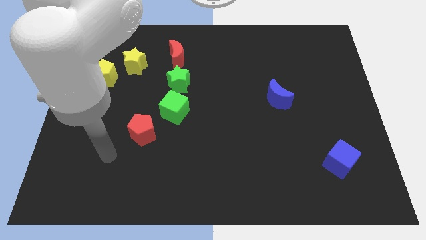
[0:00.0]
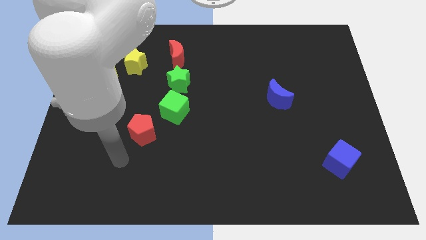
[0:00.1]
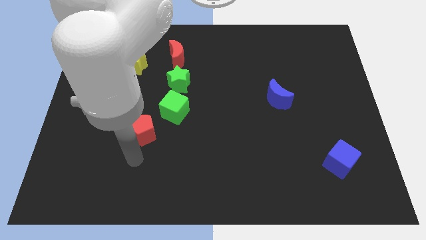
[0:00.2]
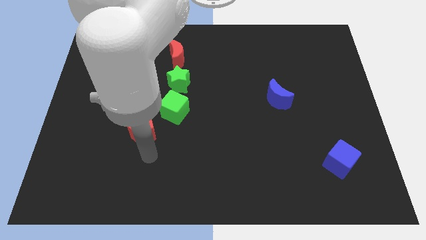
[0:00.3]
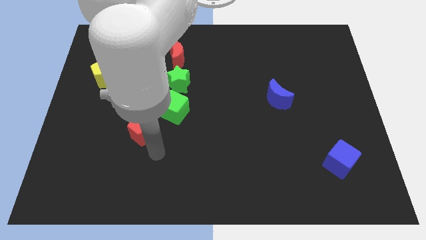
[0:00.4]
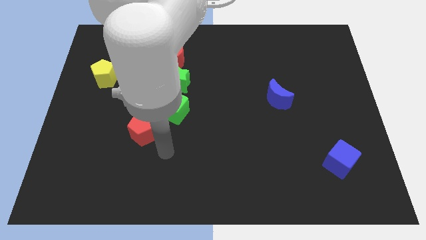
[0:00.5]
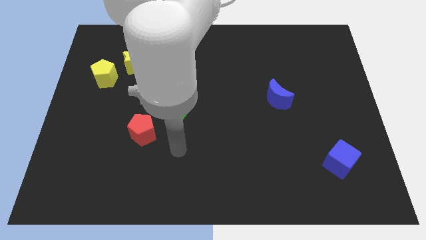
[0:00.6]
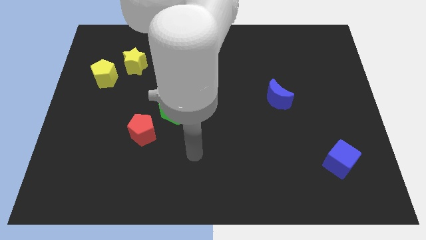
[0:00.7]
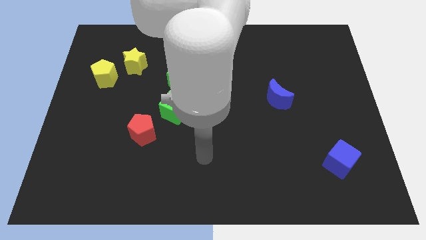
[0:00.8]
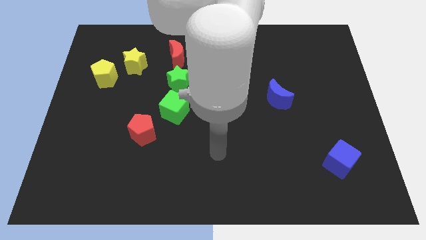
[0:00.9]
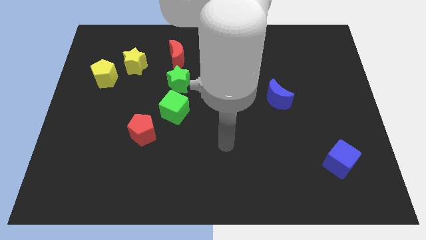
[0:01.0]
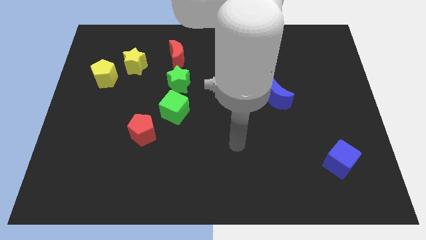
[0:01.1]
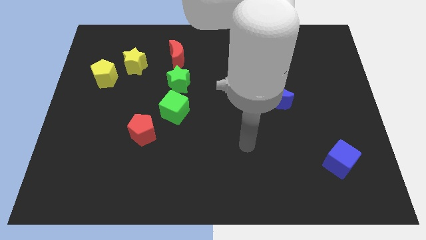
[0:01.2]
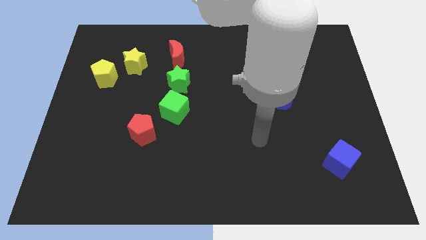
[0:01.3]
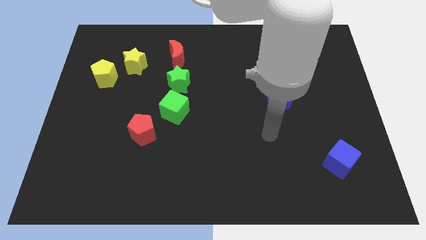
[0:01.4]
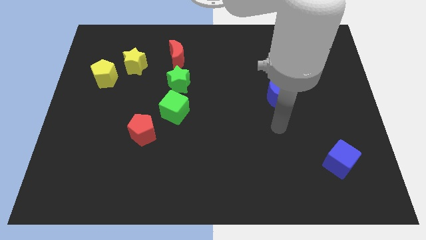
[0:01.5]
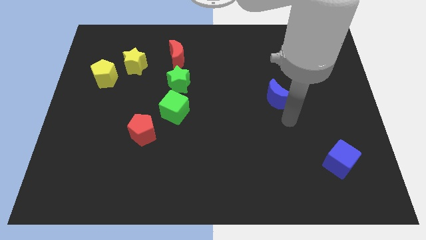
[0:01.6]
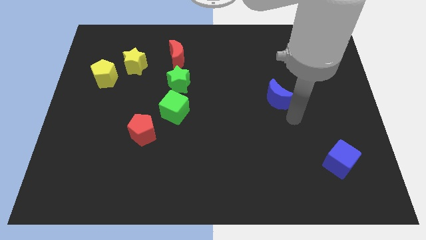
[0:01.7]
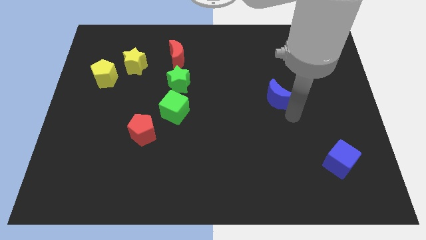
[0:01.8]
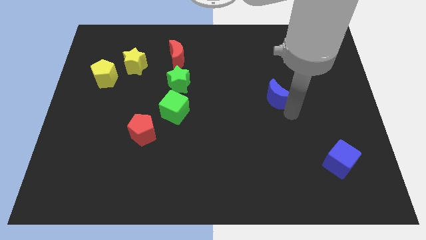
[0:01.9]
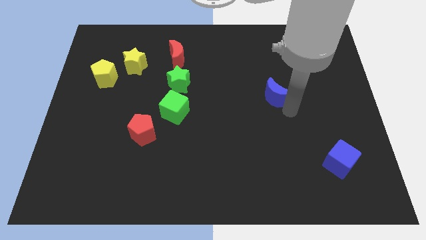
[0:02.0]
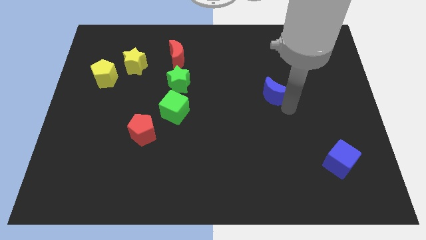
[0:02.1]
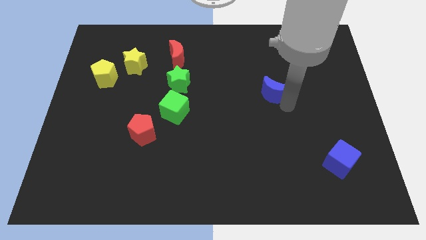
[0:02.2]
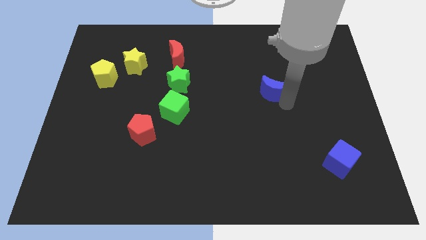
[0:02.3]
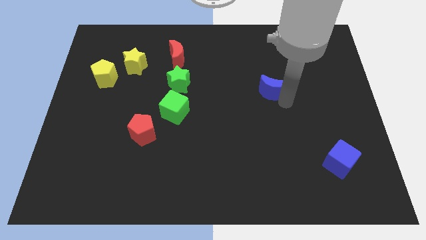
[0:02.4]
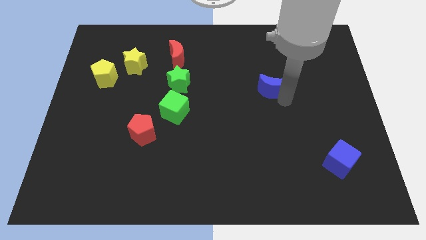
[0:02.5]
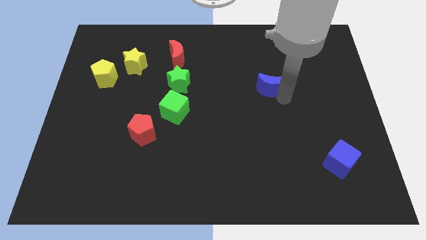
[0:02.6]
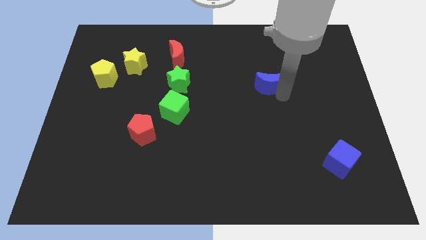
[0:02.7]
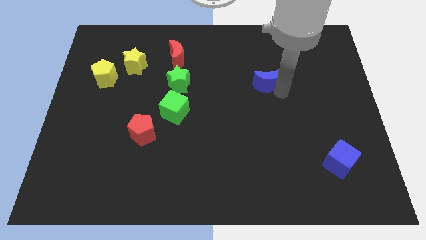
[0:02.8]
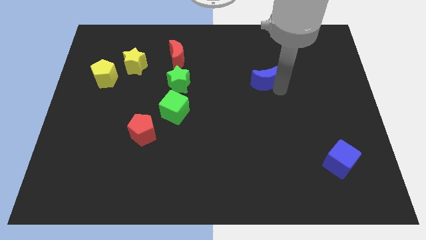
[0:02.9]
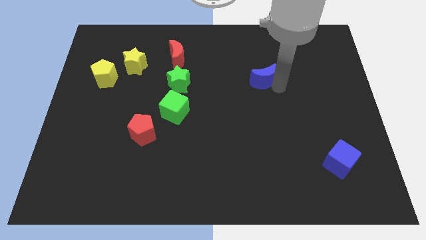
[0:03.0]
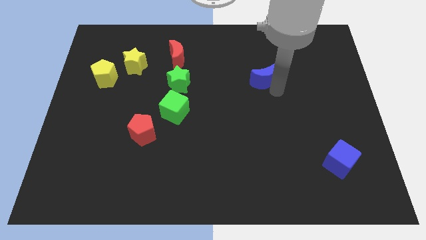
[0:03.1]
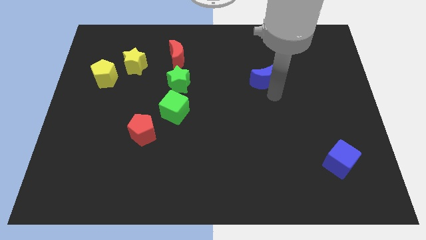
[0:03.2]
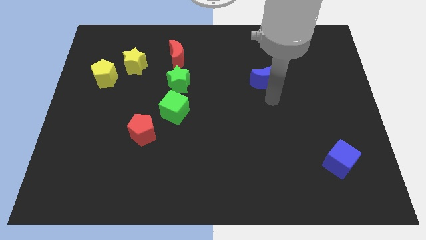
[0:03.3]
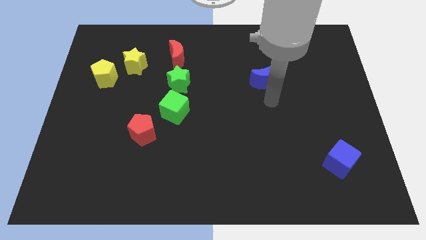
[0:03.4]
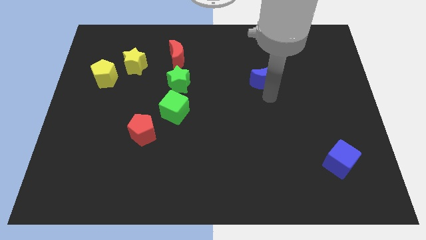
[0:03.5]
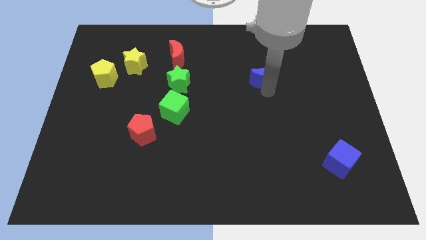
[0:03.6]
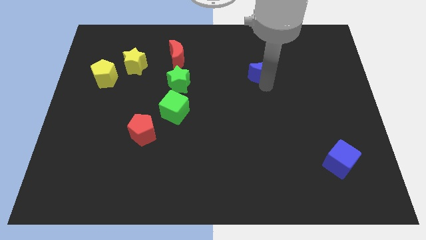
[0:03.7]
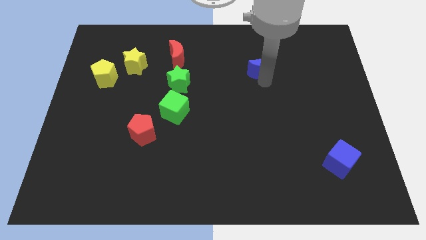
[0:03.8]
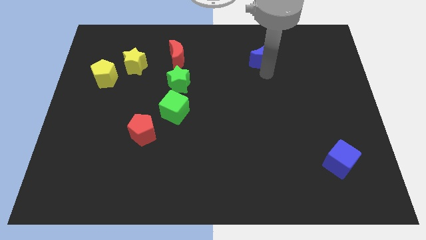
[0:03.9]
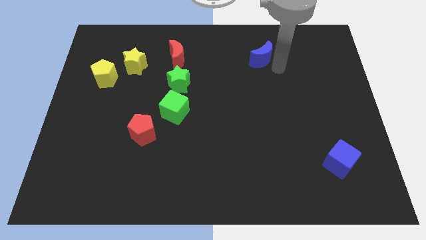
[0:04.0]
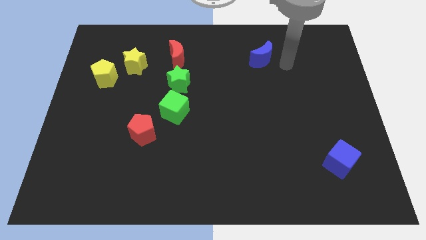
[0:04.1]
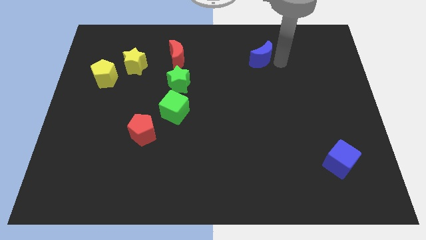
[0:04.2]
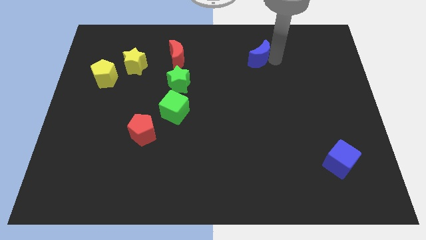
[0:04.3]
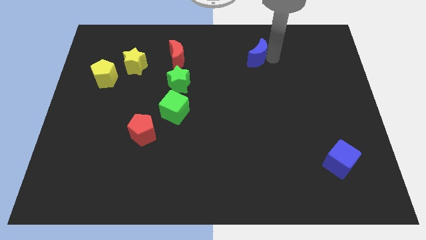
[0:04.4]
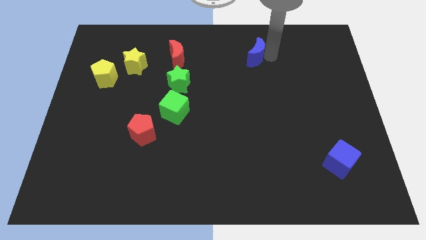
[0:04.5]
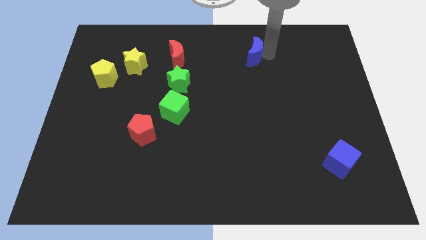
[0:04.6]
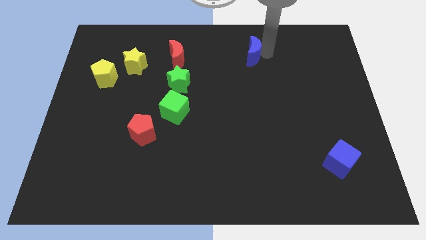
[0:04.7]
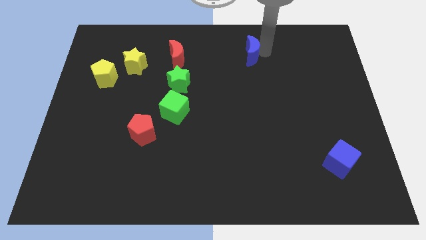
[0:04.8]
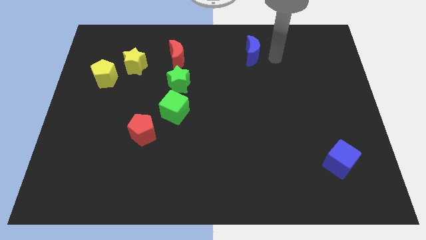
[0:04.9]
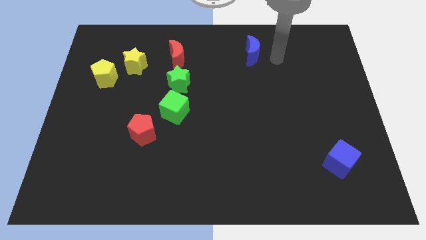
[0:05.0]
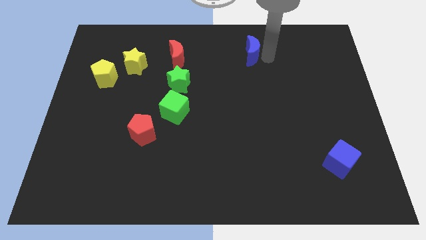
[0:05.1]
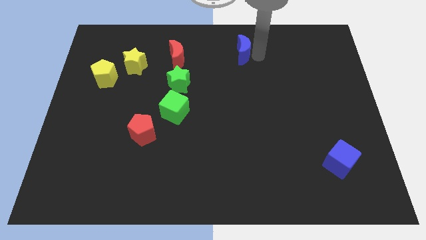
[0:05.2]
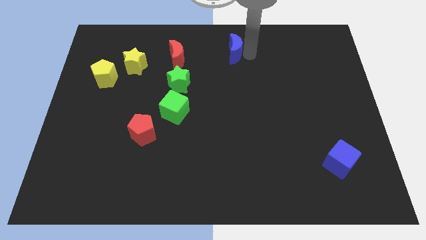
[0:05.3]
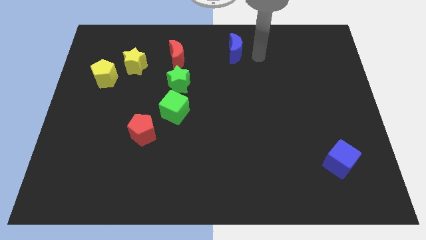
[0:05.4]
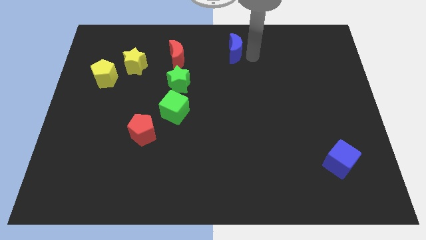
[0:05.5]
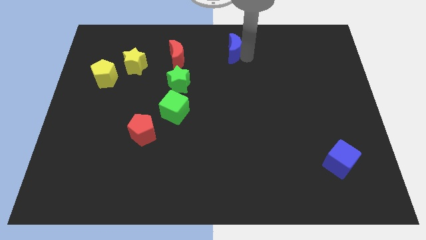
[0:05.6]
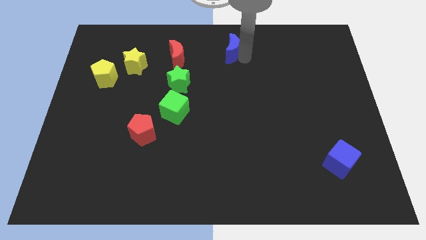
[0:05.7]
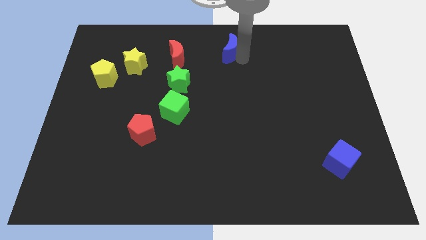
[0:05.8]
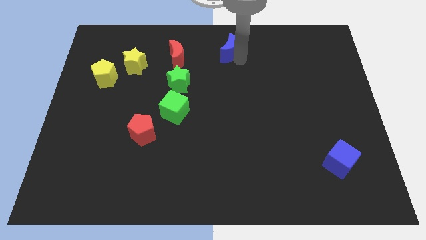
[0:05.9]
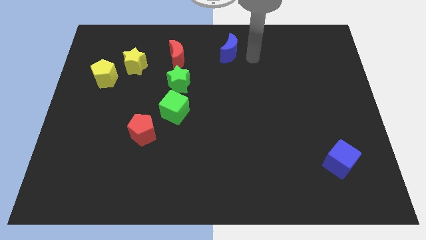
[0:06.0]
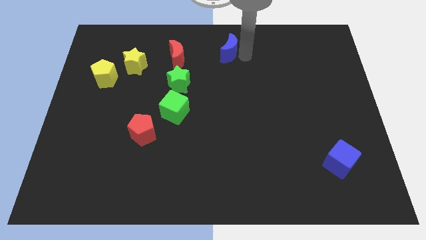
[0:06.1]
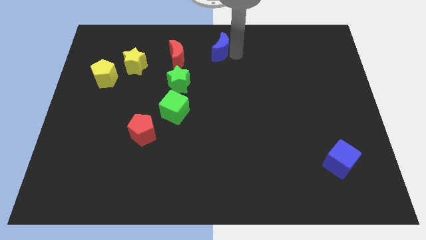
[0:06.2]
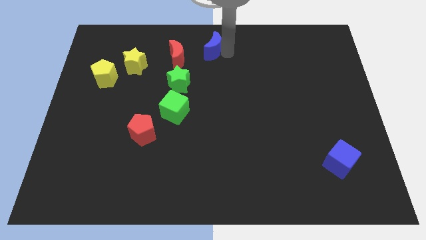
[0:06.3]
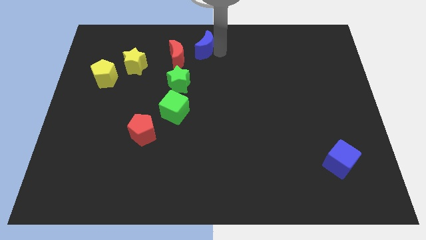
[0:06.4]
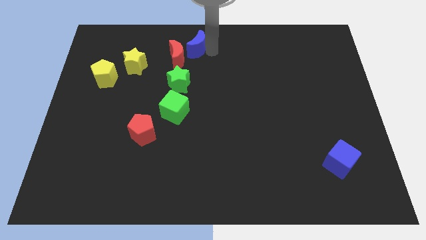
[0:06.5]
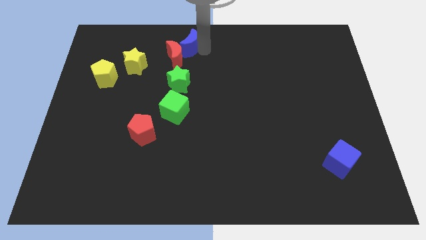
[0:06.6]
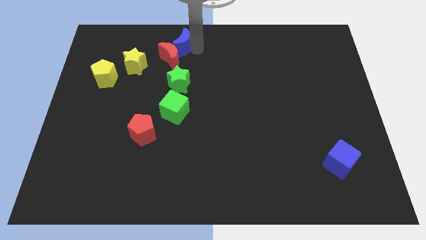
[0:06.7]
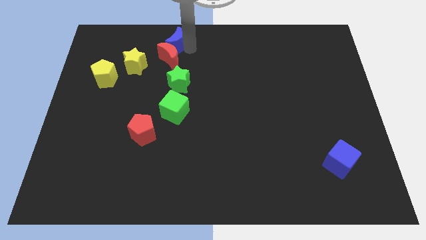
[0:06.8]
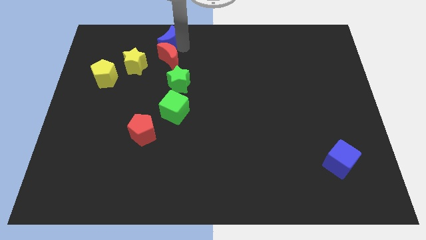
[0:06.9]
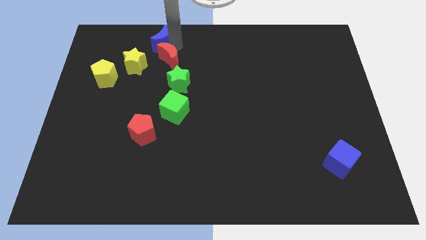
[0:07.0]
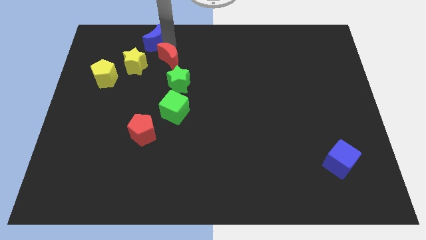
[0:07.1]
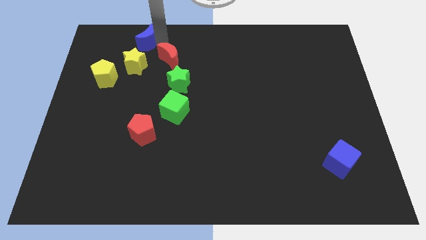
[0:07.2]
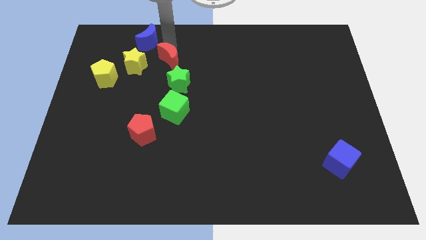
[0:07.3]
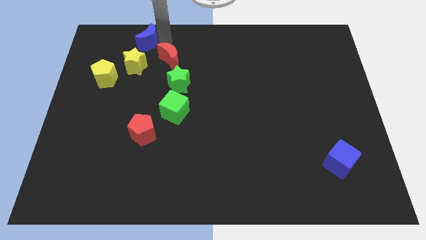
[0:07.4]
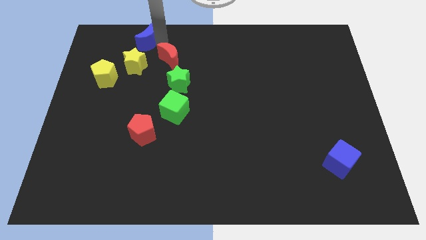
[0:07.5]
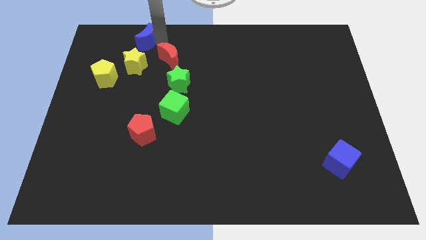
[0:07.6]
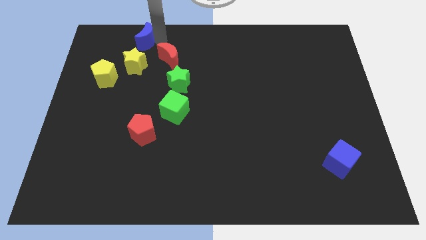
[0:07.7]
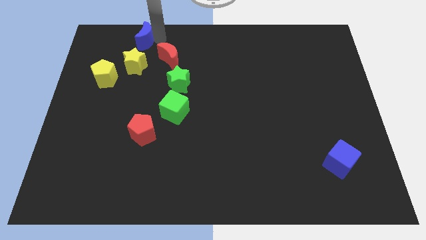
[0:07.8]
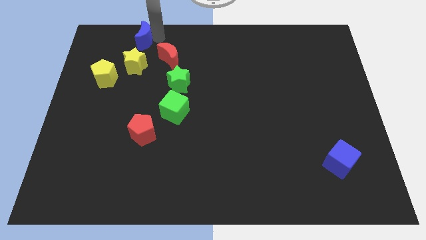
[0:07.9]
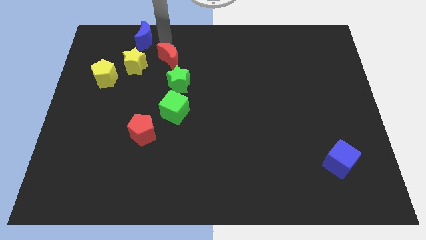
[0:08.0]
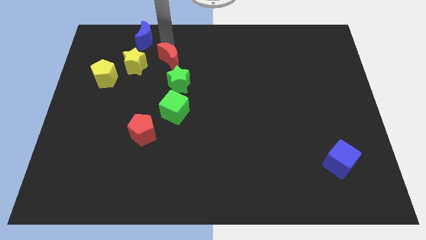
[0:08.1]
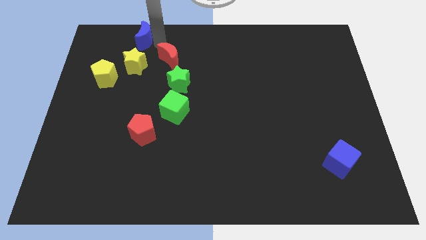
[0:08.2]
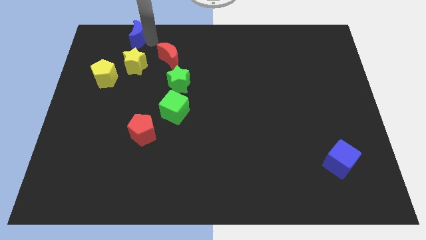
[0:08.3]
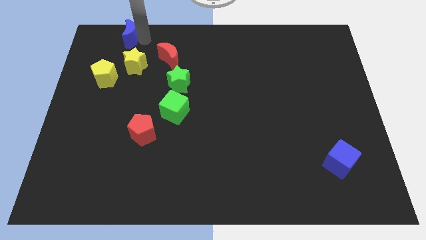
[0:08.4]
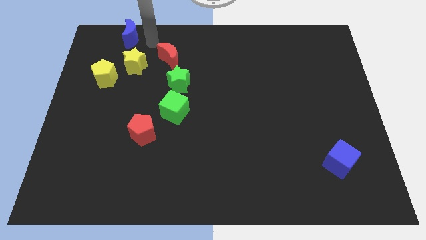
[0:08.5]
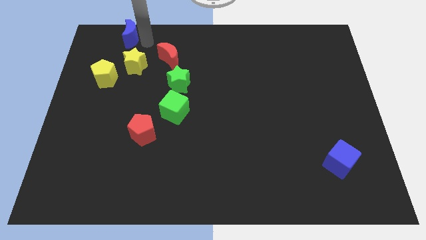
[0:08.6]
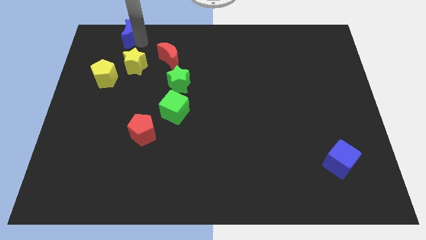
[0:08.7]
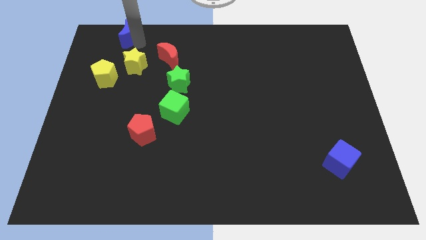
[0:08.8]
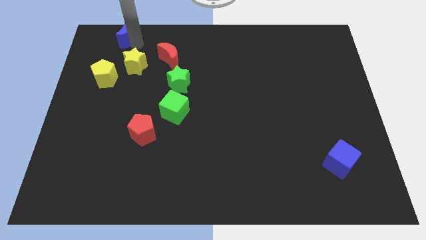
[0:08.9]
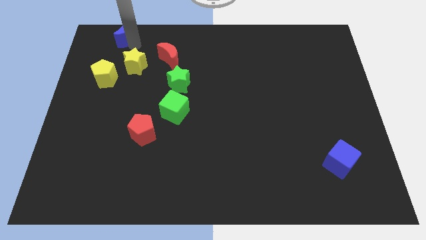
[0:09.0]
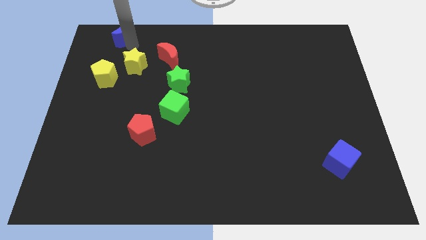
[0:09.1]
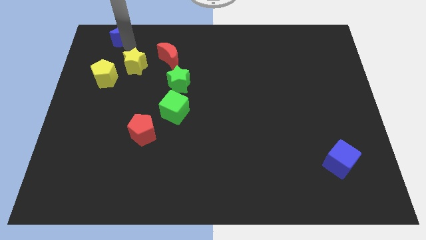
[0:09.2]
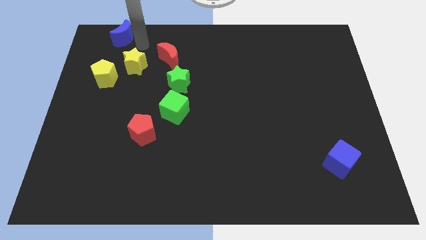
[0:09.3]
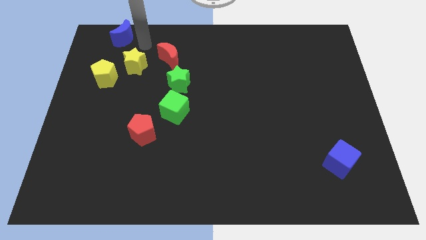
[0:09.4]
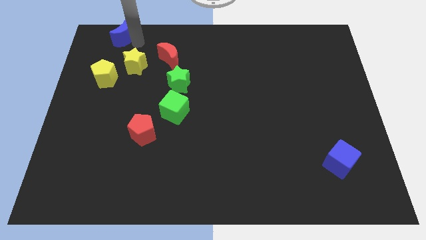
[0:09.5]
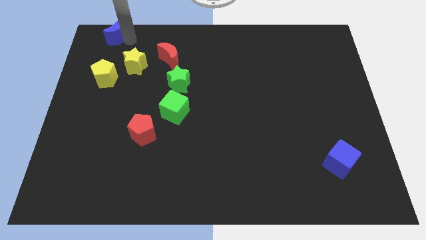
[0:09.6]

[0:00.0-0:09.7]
put the blue moon to the upper left corner
